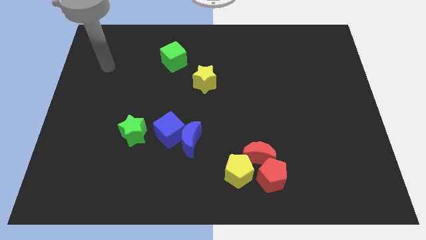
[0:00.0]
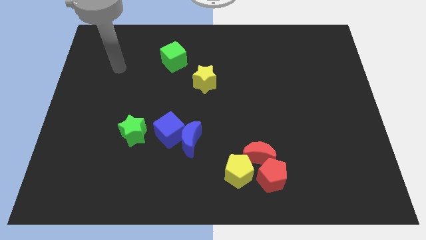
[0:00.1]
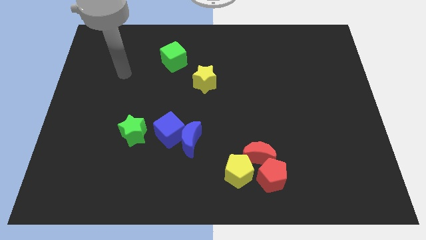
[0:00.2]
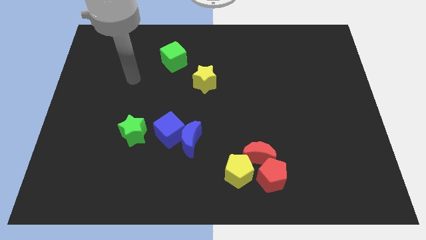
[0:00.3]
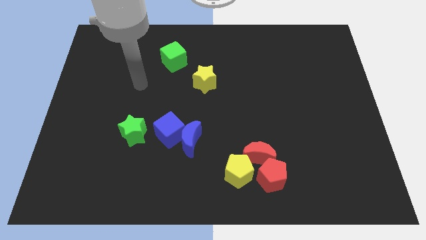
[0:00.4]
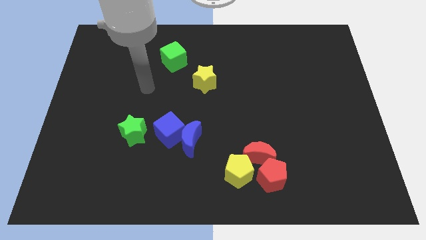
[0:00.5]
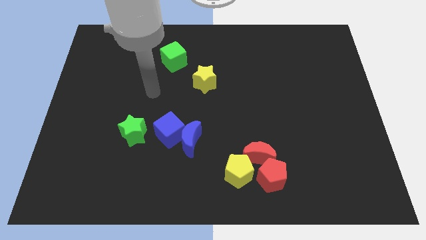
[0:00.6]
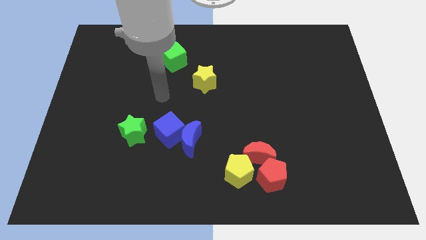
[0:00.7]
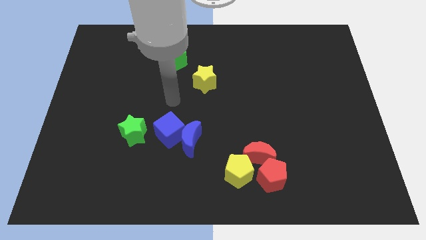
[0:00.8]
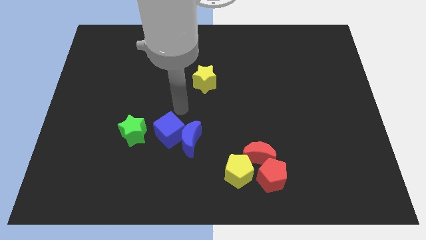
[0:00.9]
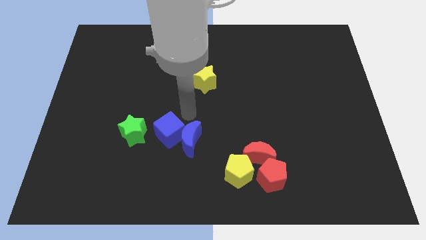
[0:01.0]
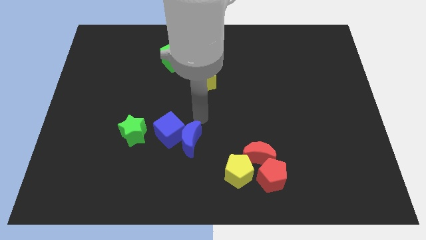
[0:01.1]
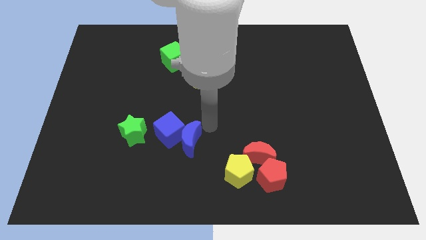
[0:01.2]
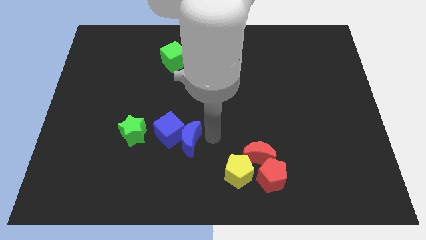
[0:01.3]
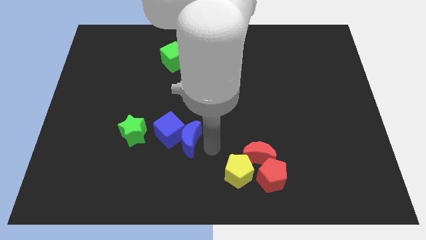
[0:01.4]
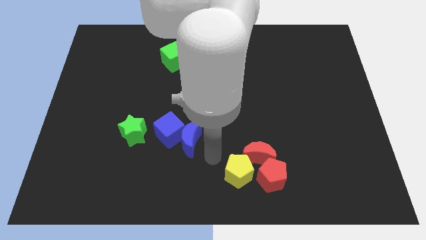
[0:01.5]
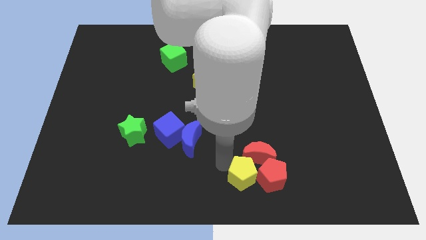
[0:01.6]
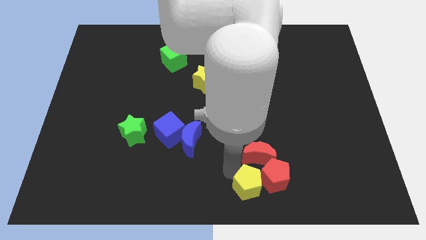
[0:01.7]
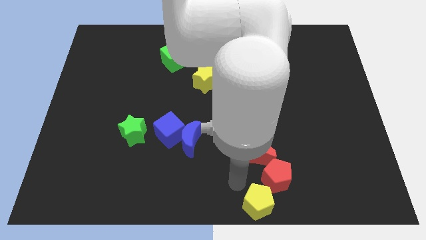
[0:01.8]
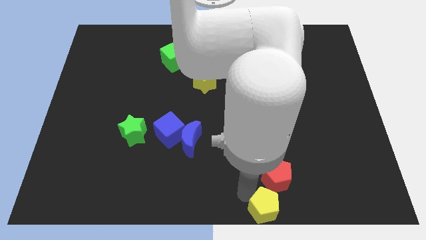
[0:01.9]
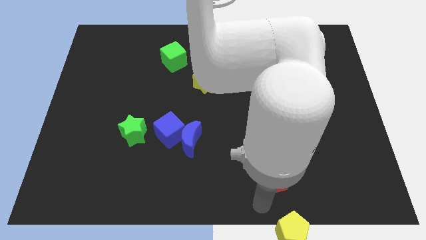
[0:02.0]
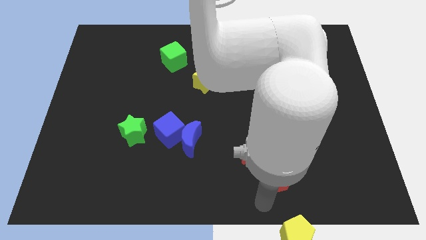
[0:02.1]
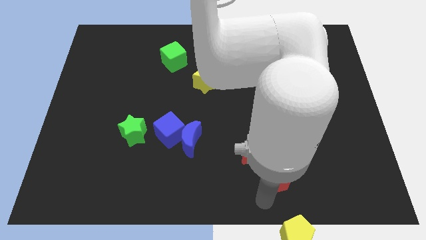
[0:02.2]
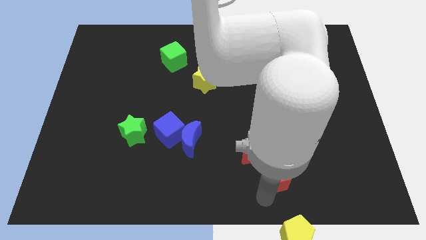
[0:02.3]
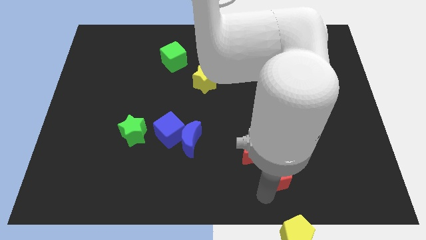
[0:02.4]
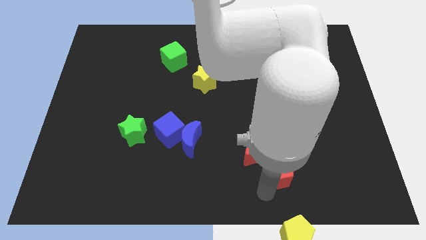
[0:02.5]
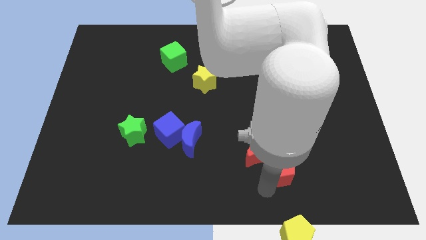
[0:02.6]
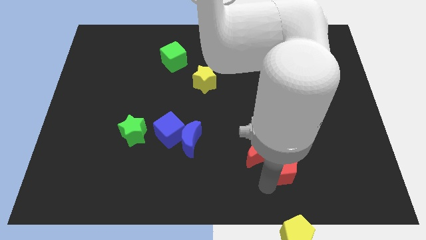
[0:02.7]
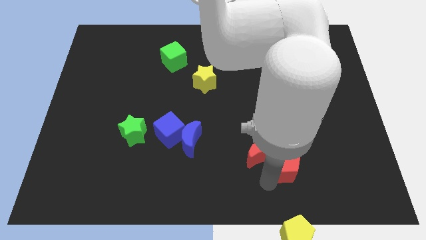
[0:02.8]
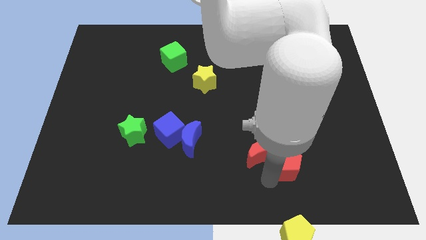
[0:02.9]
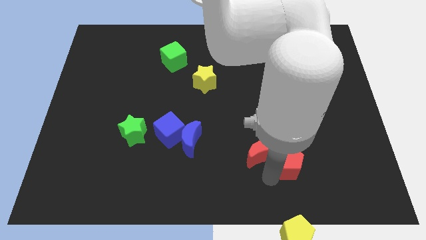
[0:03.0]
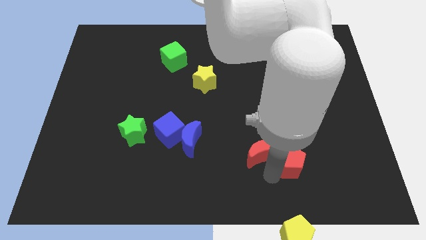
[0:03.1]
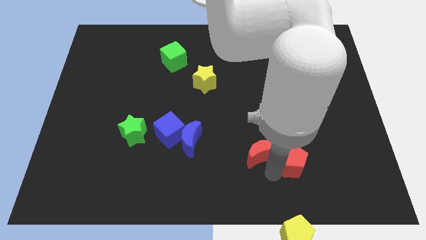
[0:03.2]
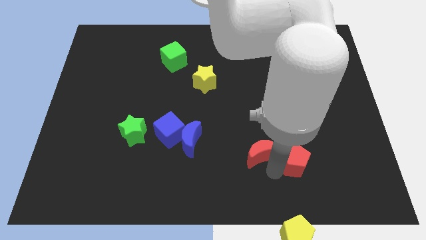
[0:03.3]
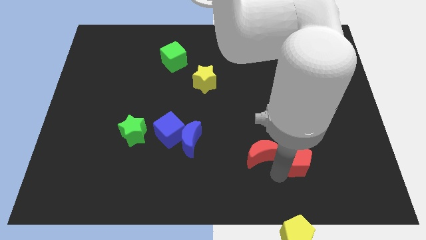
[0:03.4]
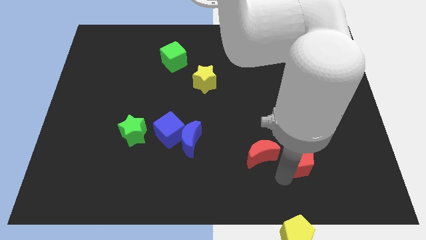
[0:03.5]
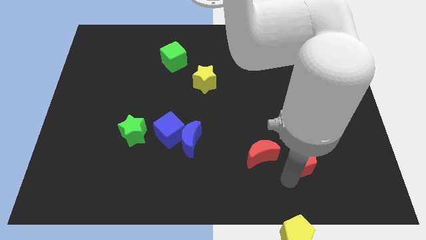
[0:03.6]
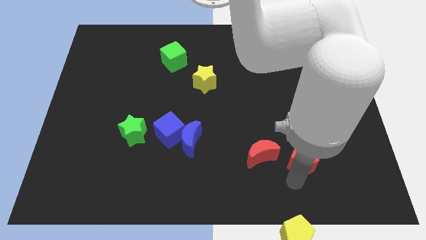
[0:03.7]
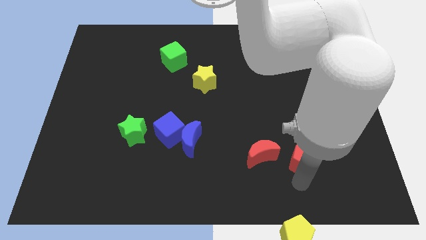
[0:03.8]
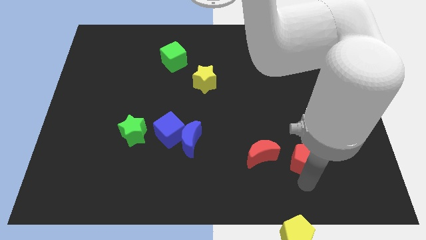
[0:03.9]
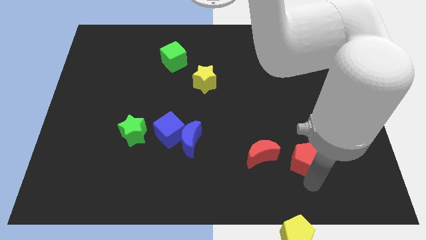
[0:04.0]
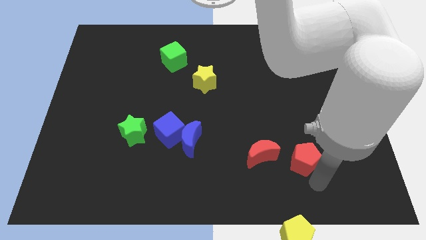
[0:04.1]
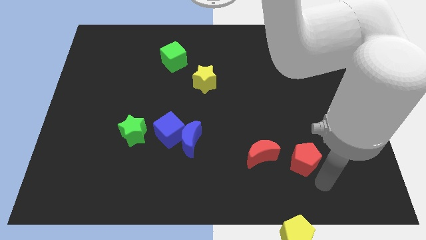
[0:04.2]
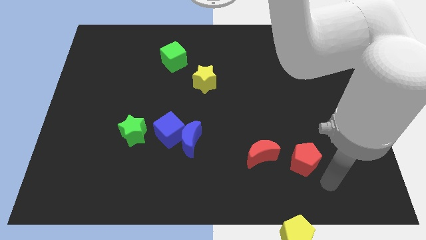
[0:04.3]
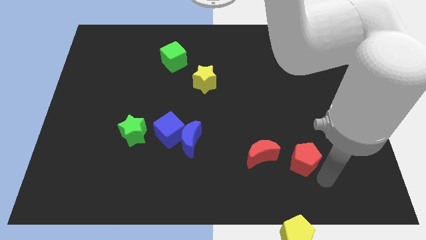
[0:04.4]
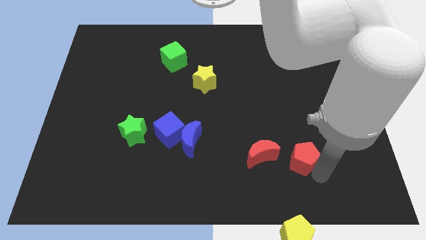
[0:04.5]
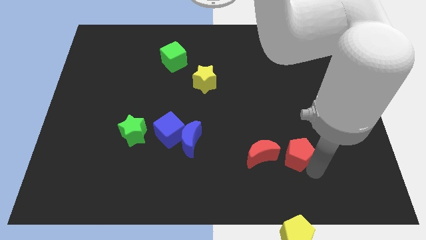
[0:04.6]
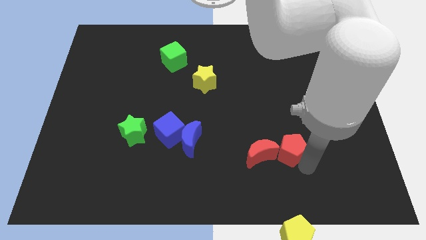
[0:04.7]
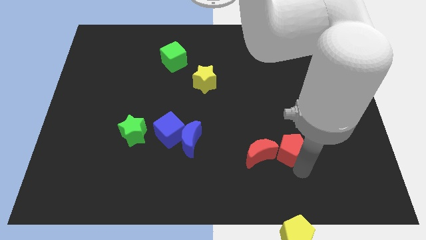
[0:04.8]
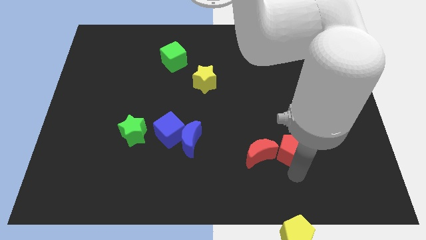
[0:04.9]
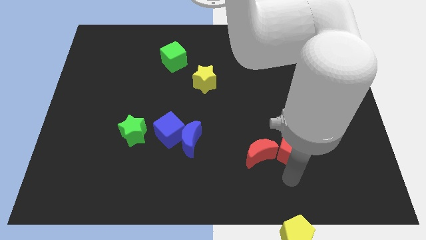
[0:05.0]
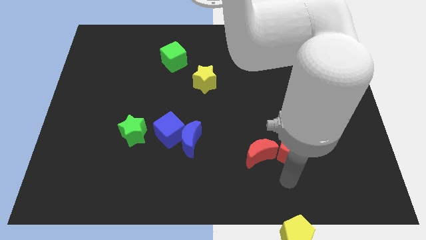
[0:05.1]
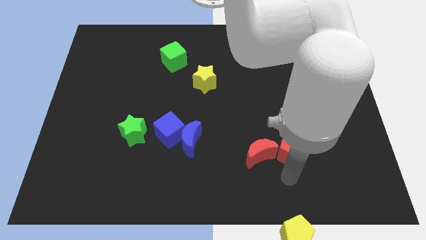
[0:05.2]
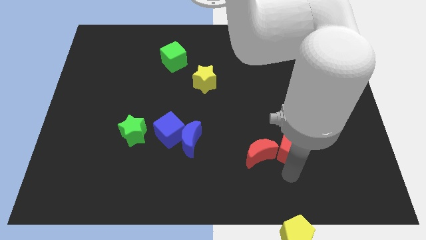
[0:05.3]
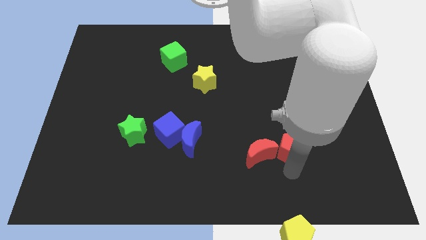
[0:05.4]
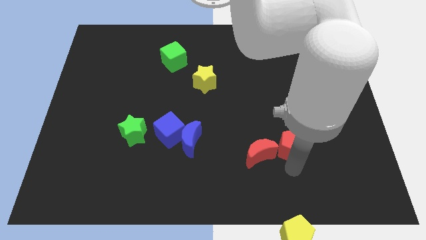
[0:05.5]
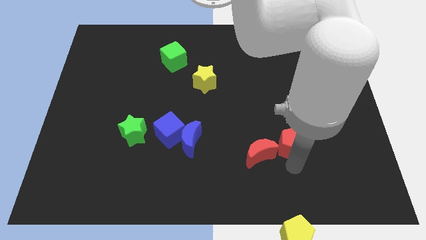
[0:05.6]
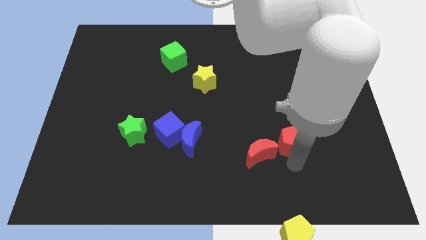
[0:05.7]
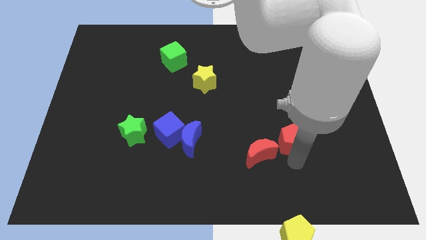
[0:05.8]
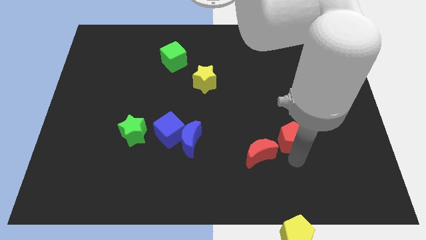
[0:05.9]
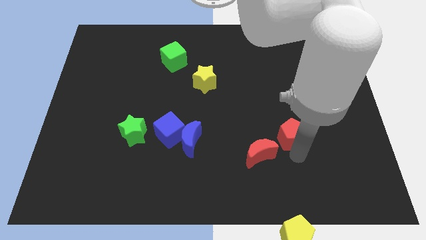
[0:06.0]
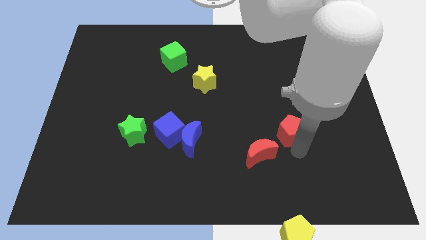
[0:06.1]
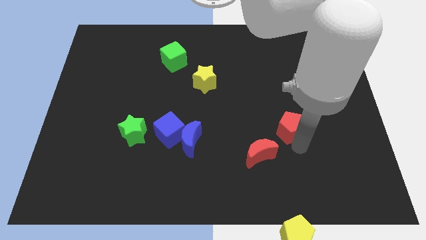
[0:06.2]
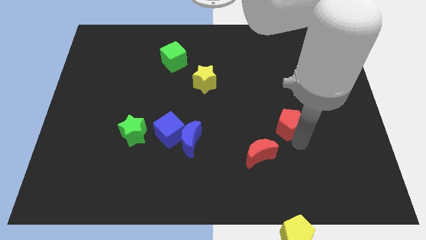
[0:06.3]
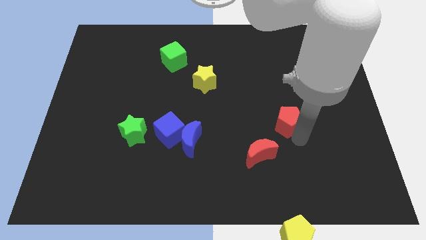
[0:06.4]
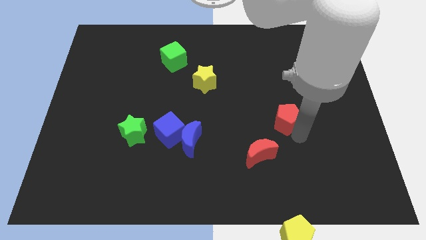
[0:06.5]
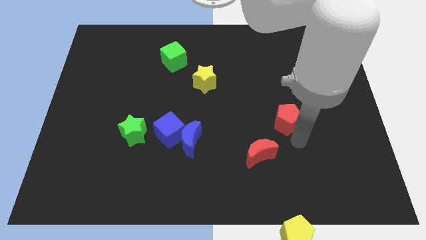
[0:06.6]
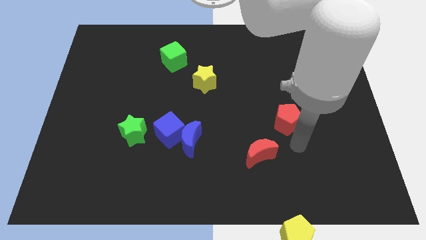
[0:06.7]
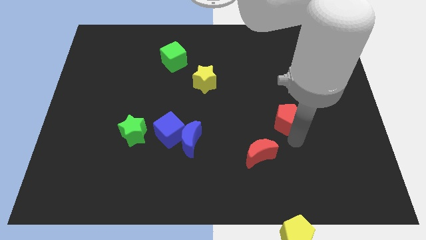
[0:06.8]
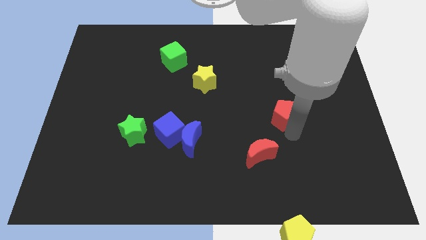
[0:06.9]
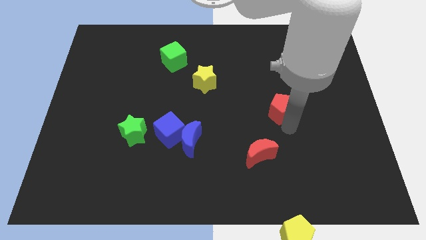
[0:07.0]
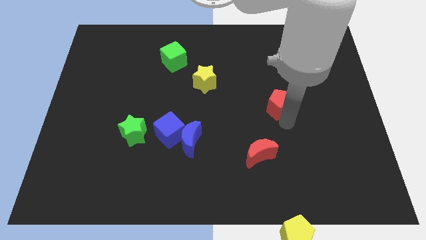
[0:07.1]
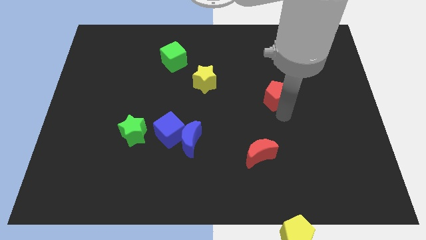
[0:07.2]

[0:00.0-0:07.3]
slide the red pentagon up

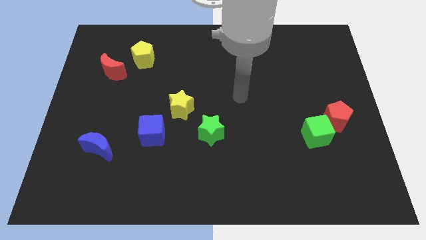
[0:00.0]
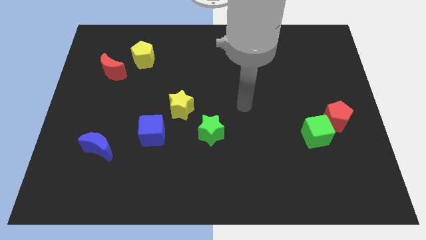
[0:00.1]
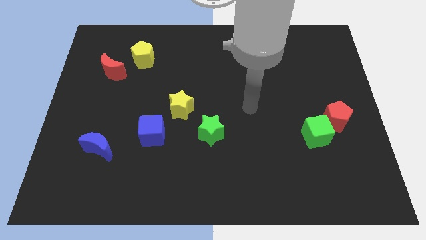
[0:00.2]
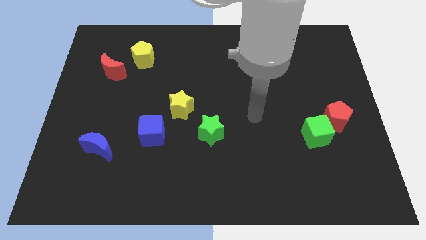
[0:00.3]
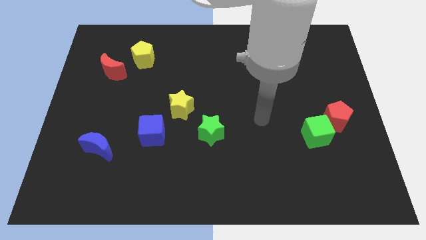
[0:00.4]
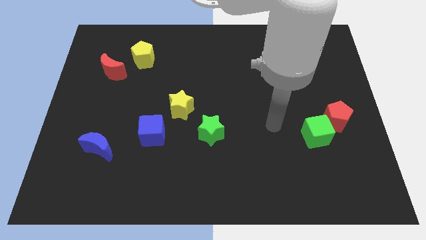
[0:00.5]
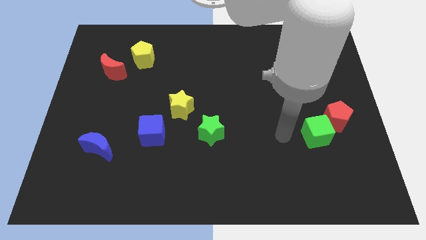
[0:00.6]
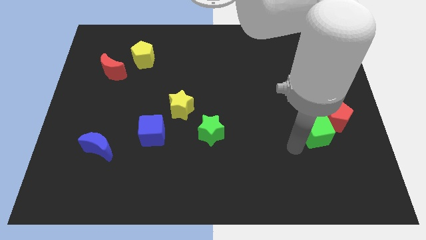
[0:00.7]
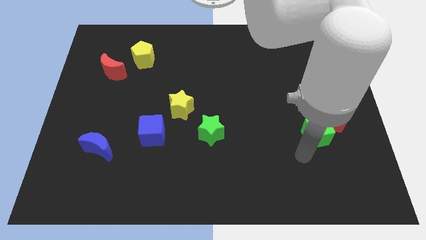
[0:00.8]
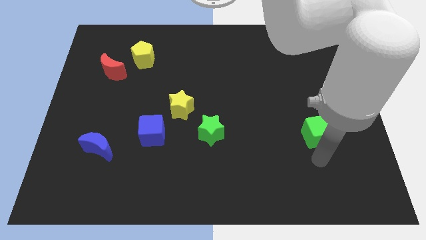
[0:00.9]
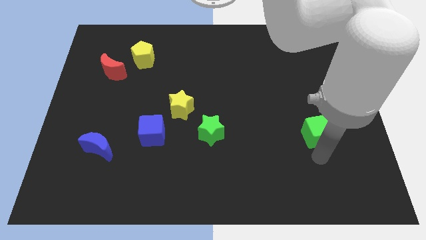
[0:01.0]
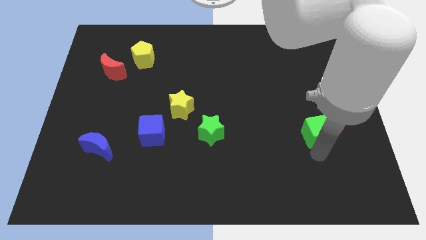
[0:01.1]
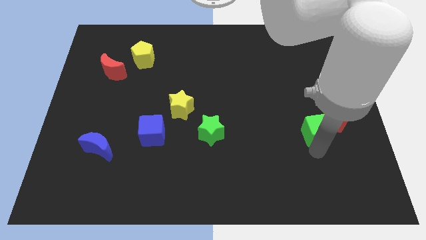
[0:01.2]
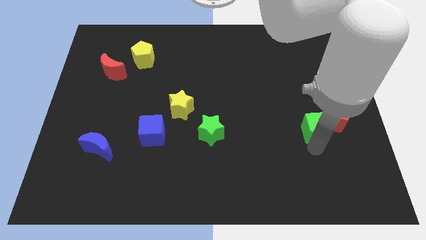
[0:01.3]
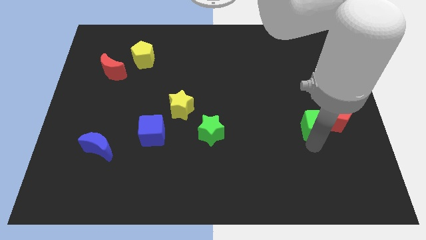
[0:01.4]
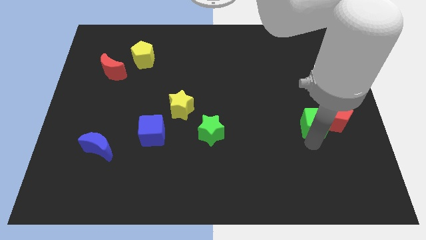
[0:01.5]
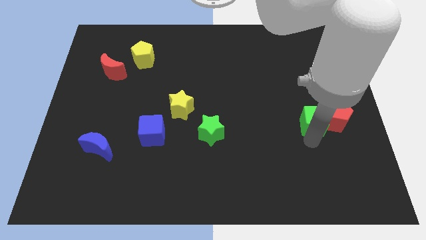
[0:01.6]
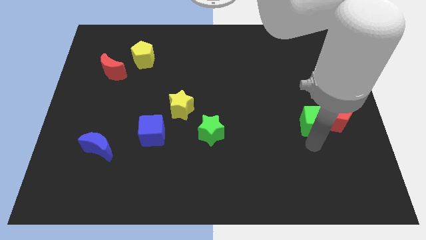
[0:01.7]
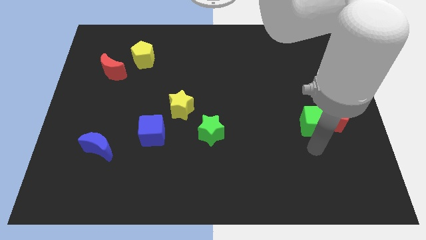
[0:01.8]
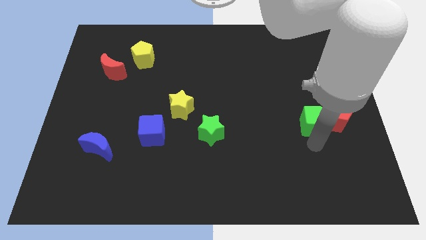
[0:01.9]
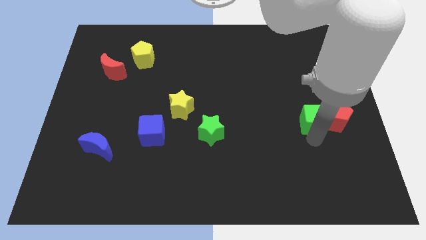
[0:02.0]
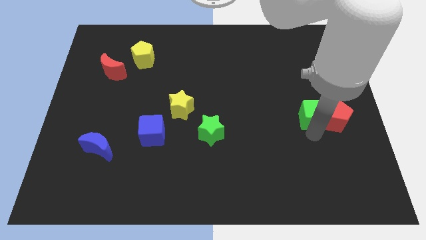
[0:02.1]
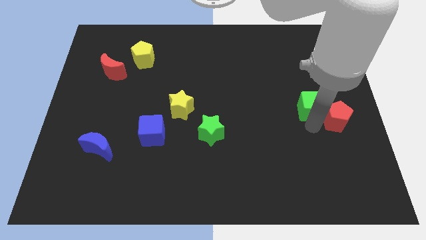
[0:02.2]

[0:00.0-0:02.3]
push the green cube a little bit upwards
